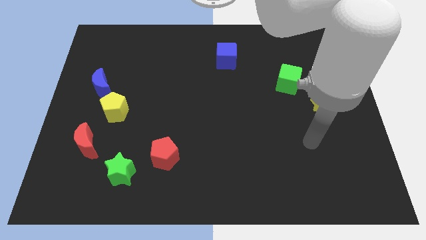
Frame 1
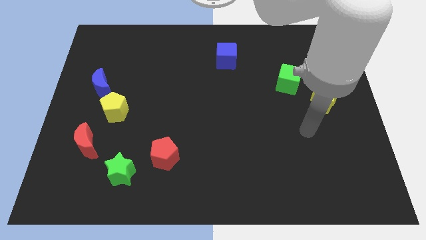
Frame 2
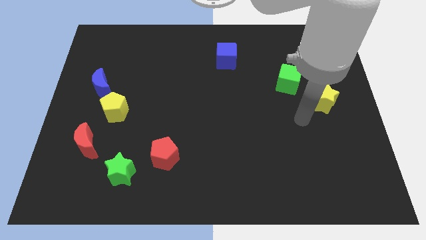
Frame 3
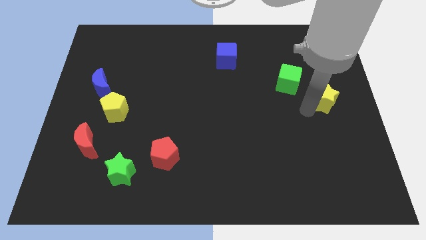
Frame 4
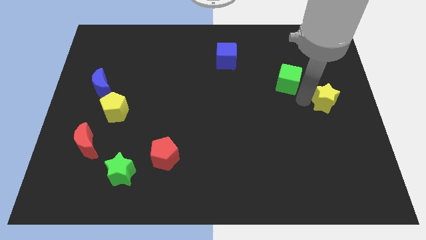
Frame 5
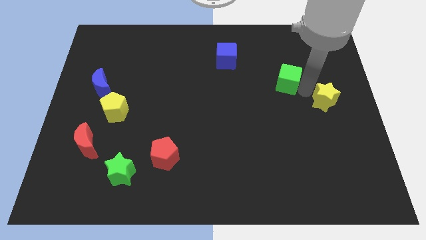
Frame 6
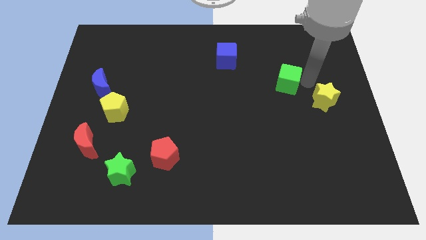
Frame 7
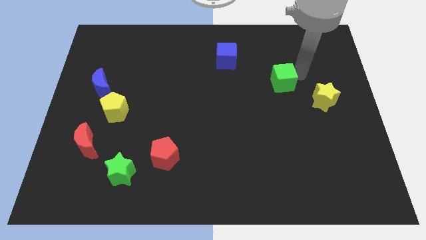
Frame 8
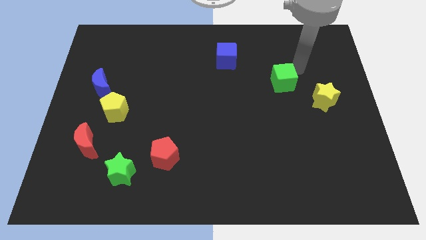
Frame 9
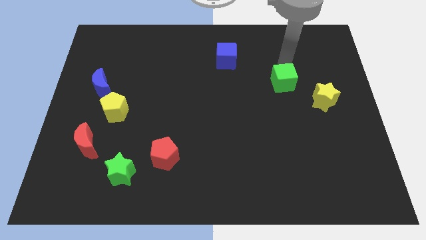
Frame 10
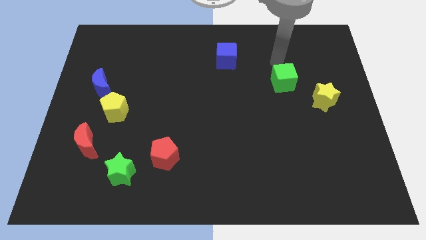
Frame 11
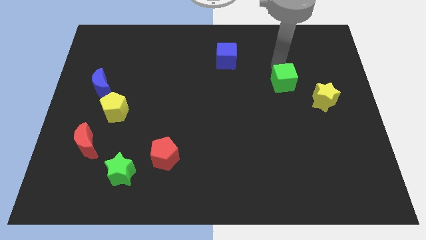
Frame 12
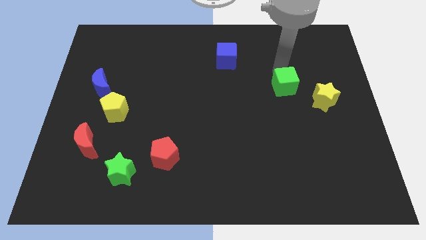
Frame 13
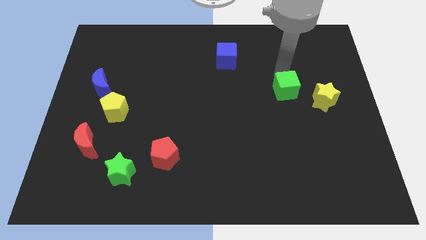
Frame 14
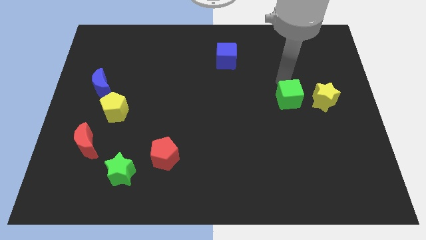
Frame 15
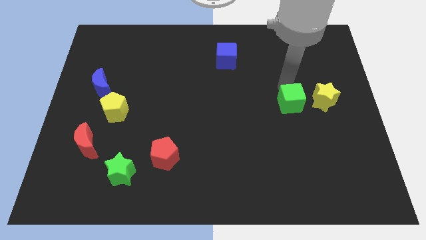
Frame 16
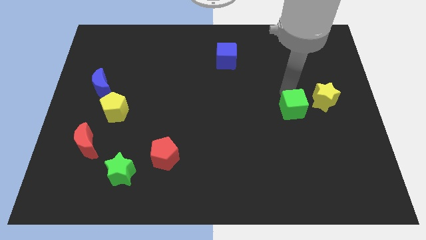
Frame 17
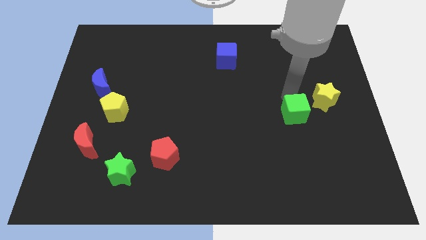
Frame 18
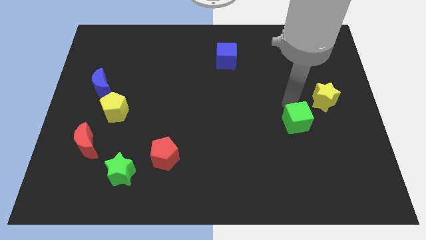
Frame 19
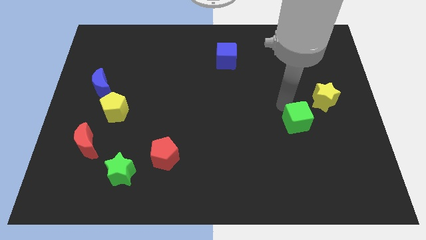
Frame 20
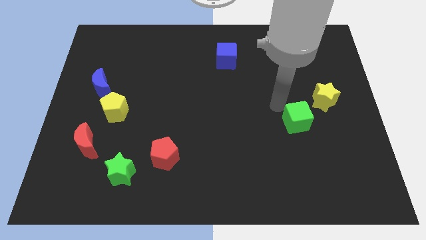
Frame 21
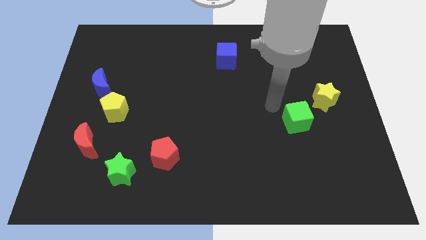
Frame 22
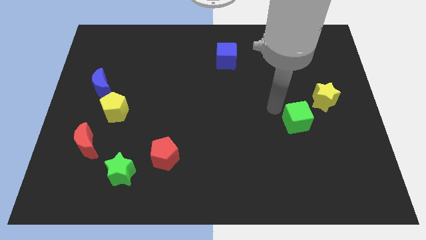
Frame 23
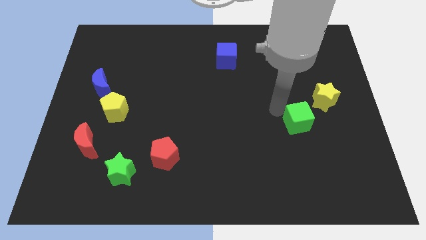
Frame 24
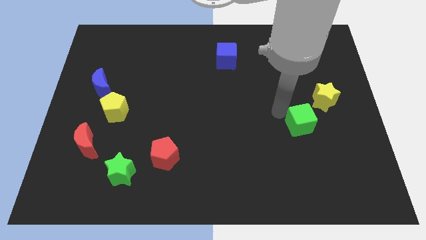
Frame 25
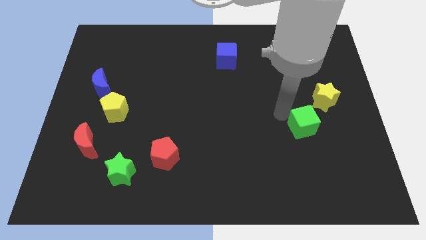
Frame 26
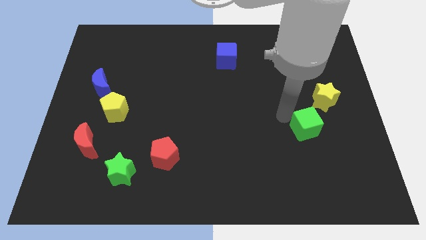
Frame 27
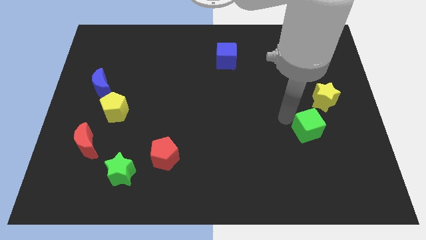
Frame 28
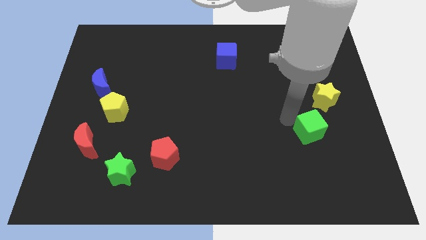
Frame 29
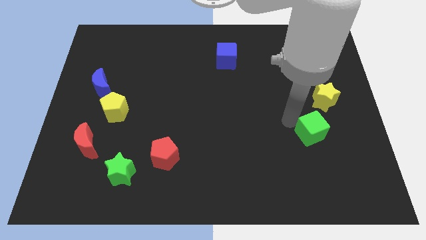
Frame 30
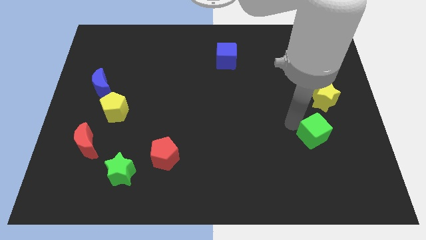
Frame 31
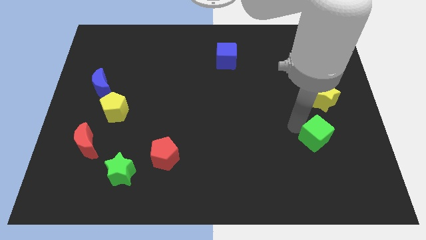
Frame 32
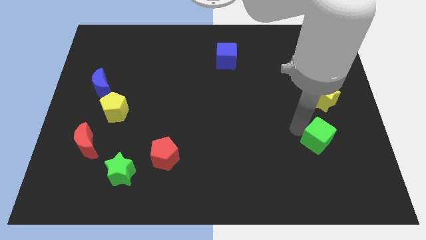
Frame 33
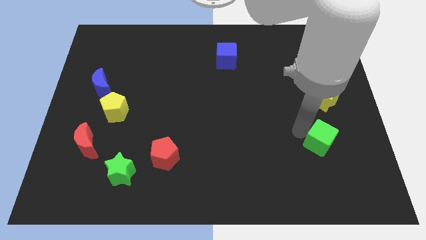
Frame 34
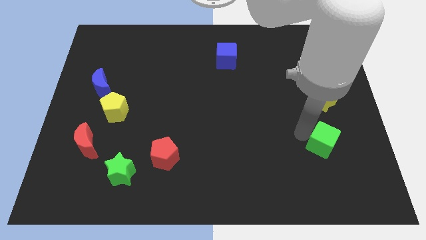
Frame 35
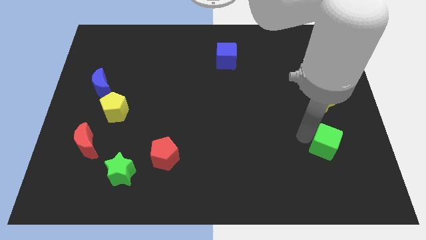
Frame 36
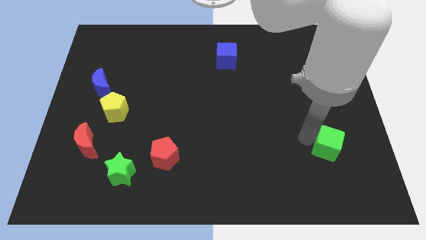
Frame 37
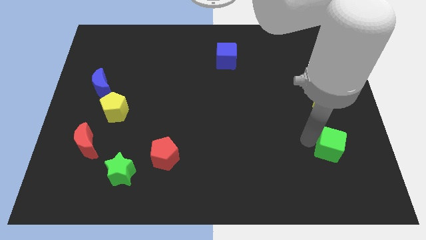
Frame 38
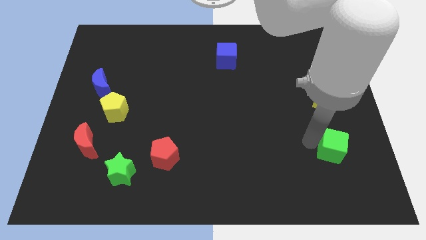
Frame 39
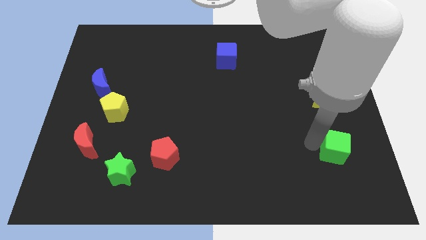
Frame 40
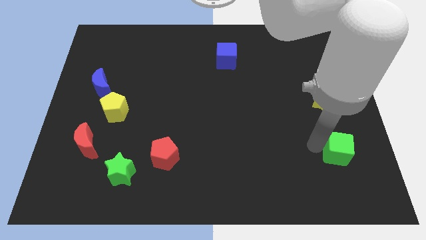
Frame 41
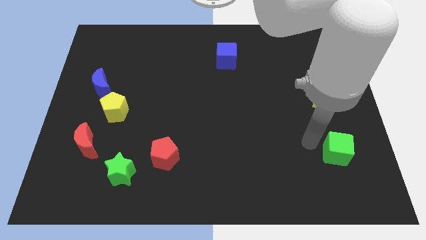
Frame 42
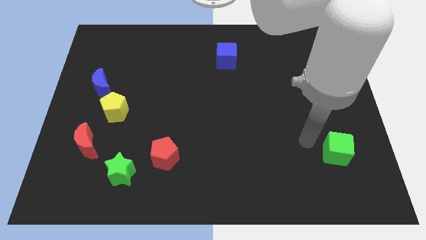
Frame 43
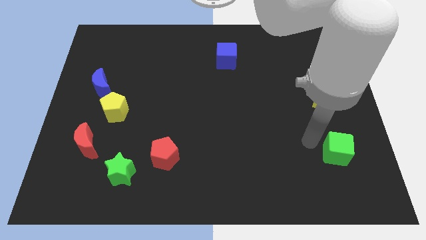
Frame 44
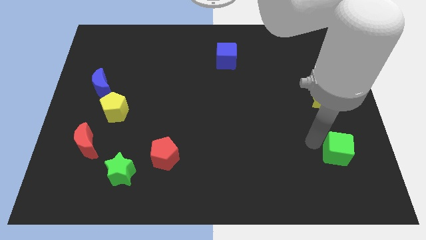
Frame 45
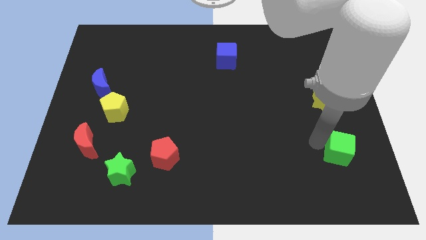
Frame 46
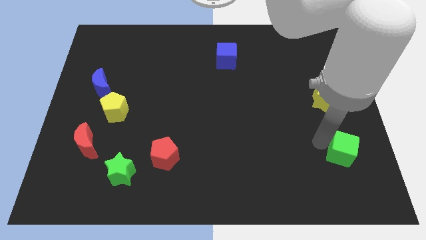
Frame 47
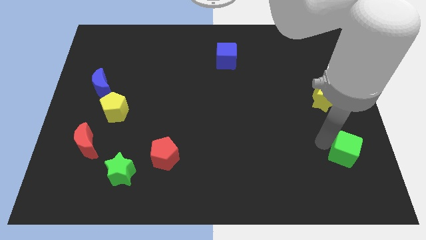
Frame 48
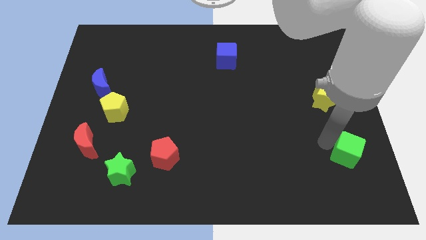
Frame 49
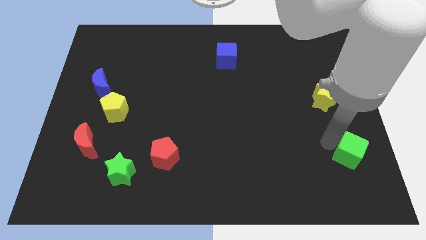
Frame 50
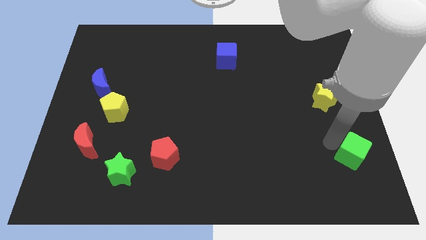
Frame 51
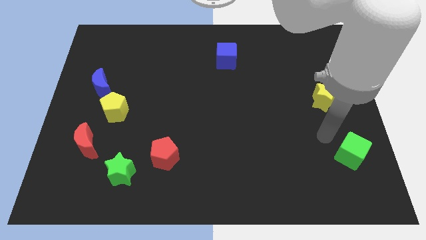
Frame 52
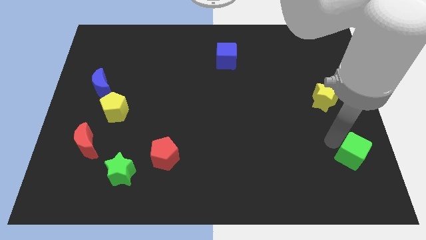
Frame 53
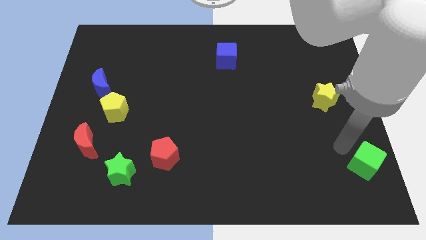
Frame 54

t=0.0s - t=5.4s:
put the green cube to the bottom right corner
